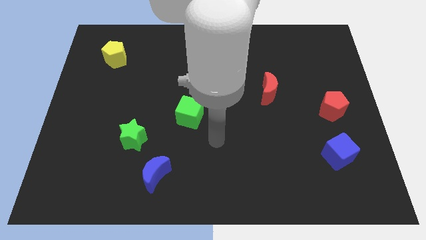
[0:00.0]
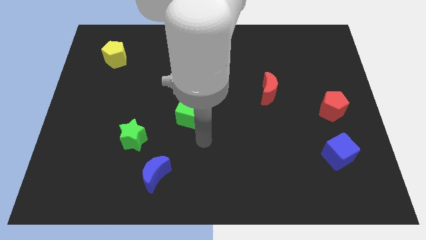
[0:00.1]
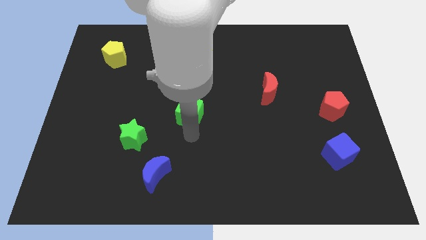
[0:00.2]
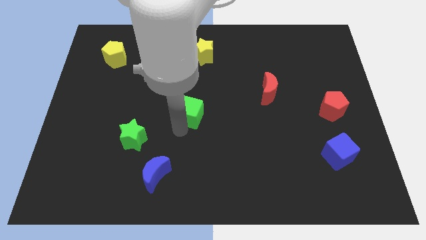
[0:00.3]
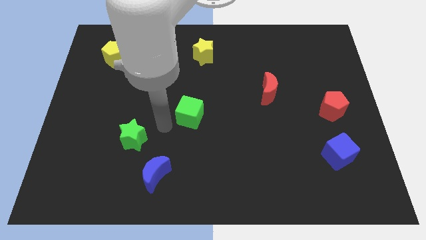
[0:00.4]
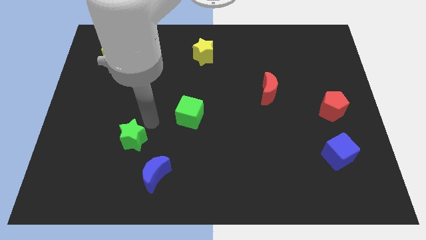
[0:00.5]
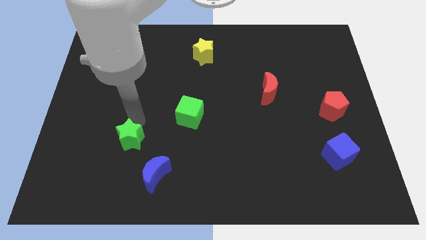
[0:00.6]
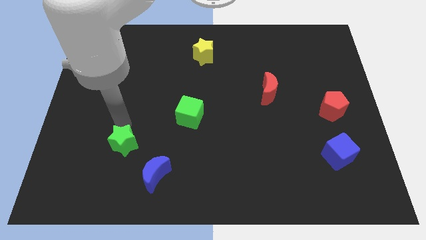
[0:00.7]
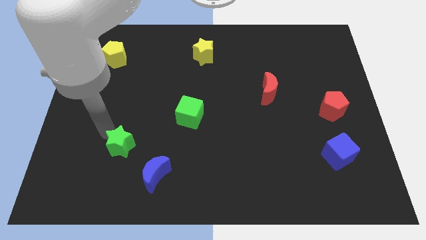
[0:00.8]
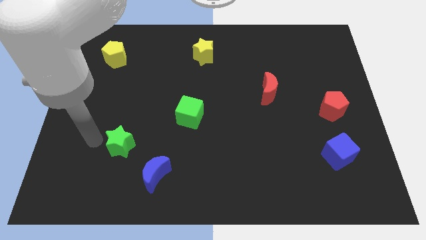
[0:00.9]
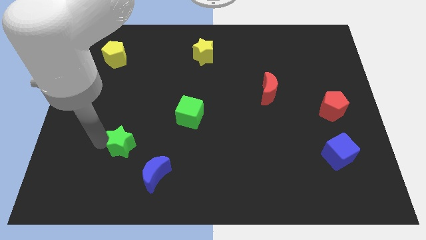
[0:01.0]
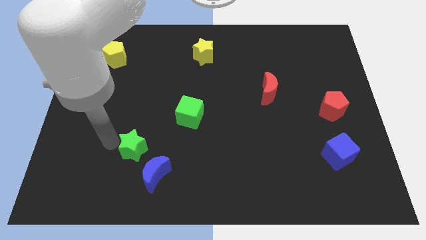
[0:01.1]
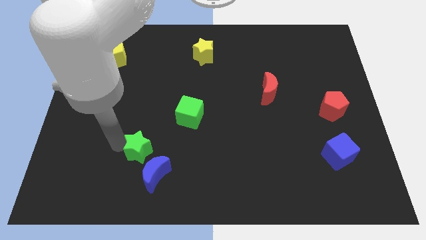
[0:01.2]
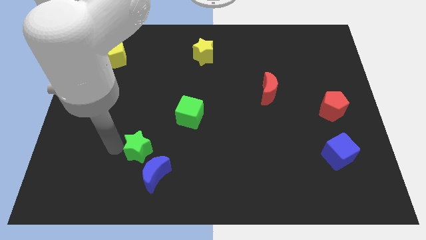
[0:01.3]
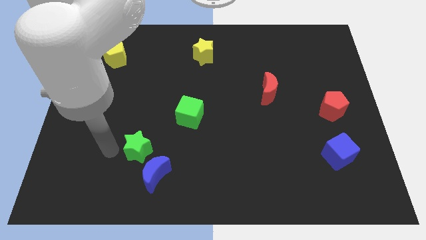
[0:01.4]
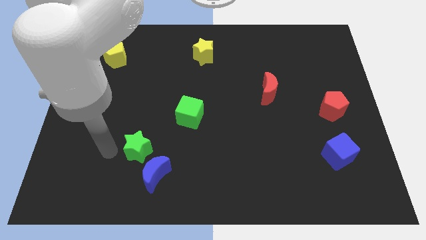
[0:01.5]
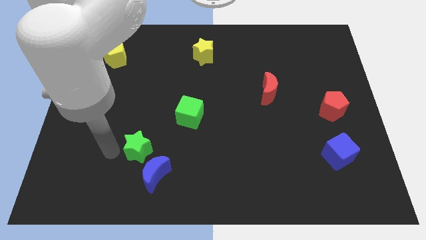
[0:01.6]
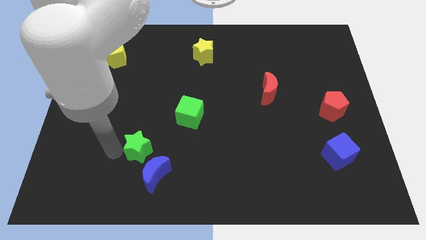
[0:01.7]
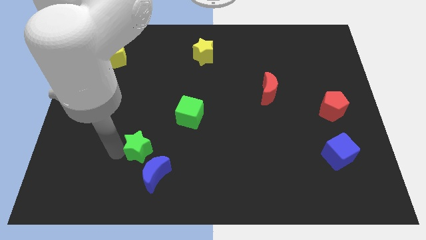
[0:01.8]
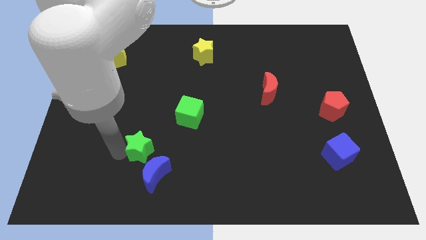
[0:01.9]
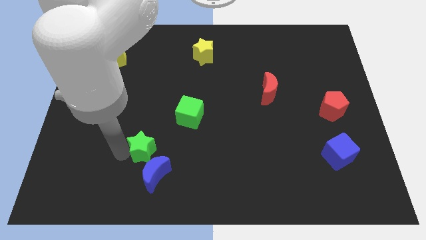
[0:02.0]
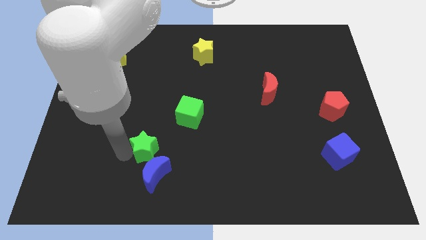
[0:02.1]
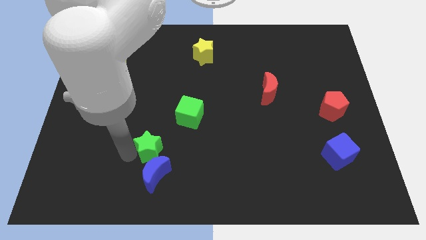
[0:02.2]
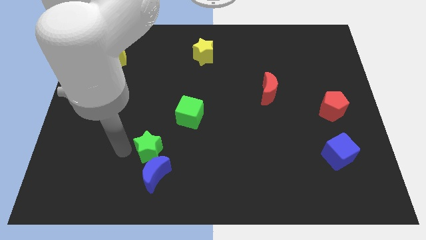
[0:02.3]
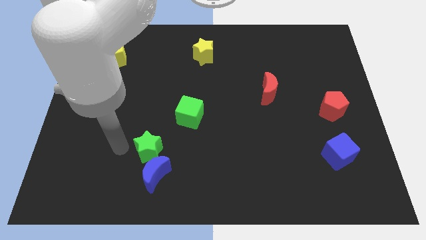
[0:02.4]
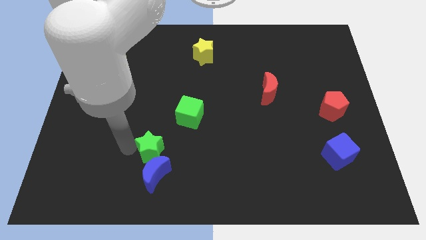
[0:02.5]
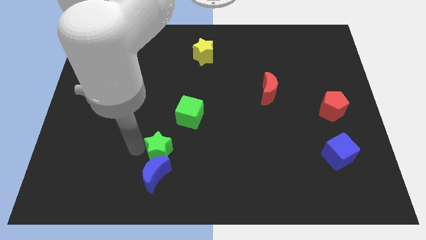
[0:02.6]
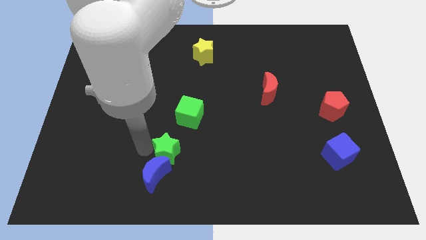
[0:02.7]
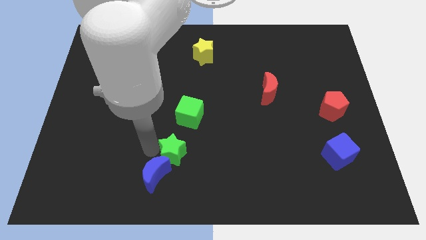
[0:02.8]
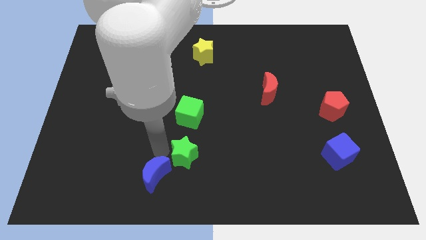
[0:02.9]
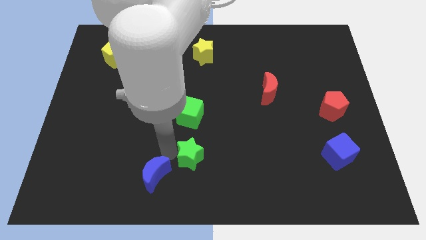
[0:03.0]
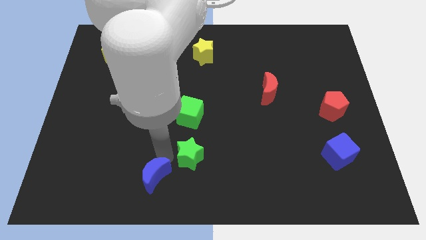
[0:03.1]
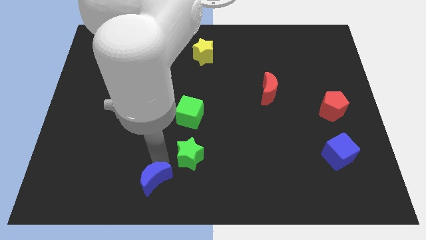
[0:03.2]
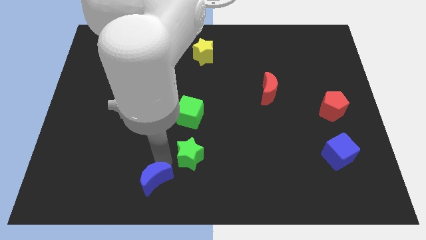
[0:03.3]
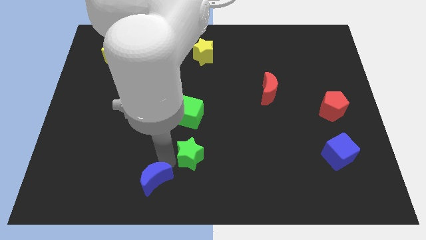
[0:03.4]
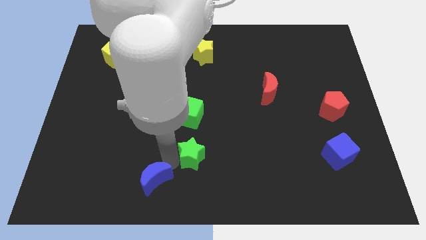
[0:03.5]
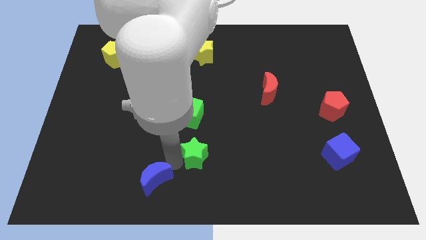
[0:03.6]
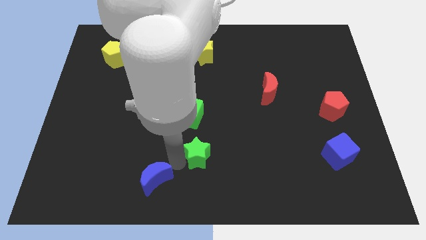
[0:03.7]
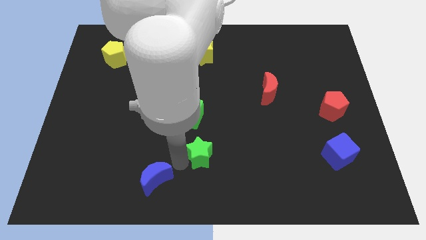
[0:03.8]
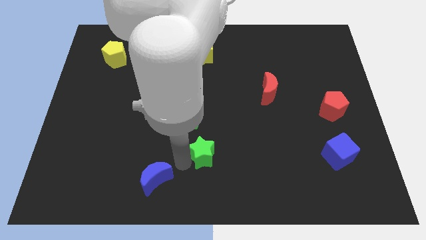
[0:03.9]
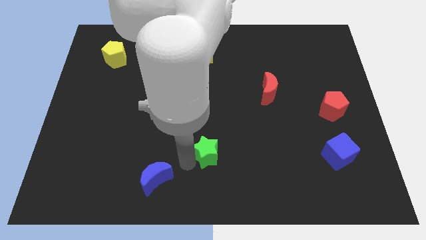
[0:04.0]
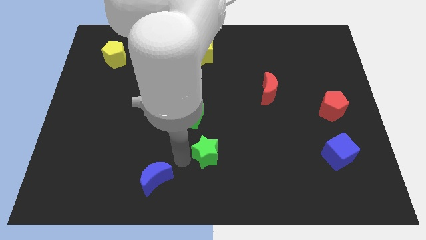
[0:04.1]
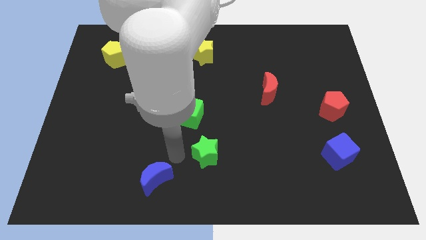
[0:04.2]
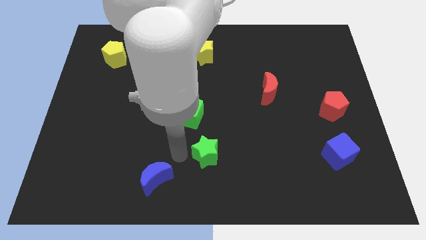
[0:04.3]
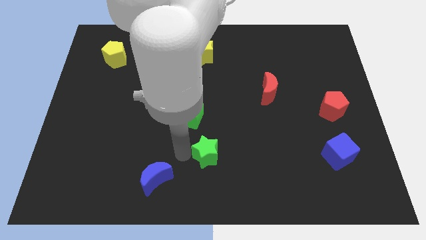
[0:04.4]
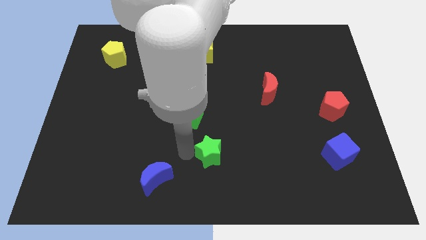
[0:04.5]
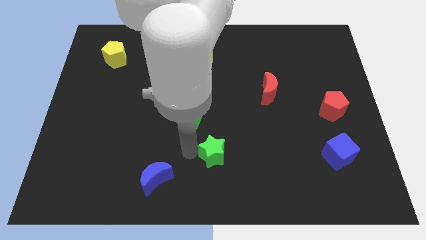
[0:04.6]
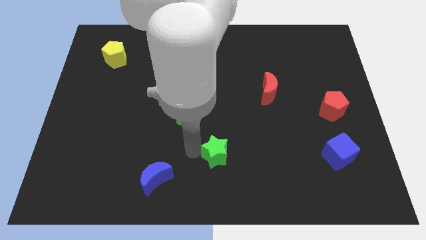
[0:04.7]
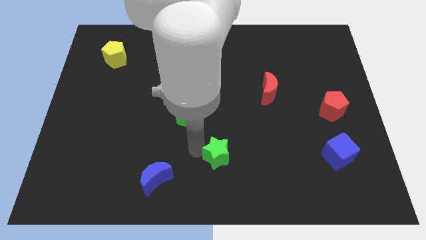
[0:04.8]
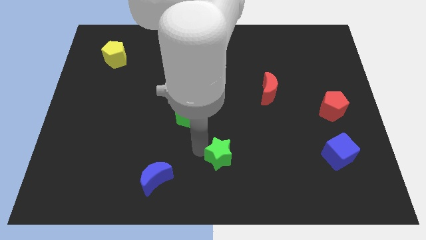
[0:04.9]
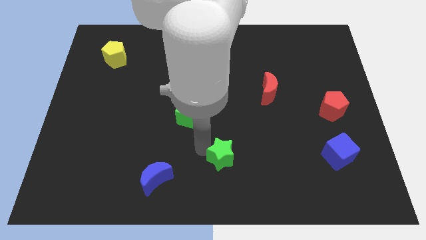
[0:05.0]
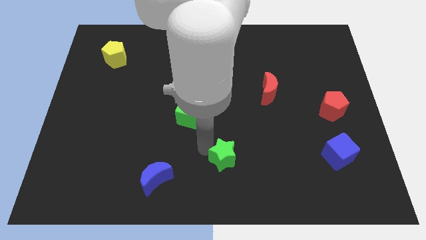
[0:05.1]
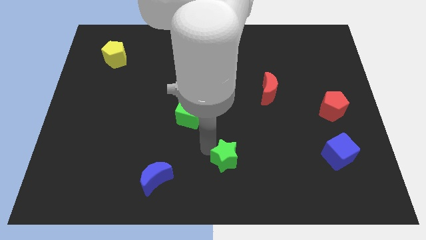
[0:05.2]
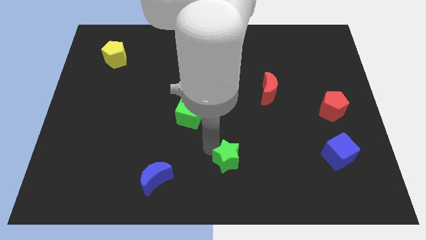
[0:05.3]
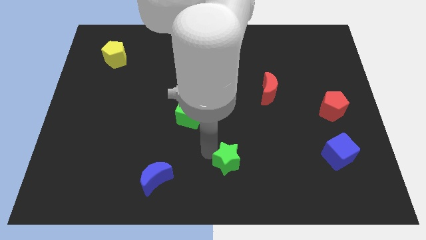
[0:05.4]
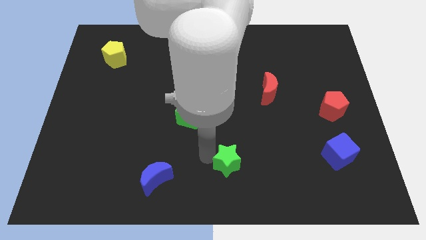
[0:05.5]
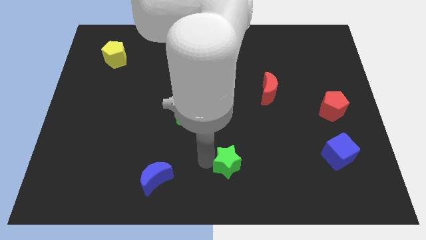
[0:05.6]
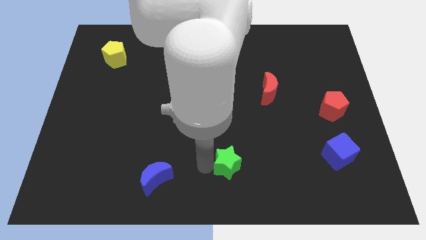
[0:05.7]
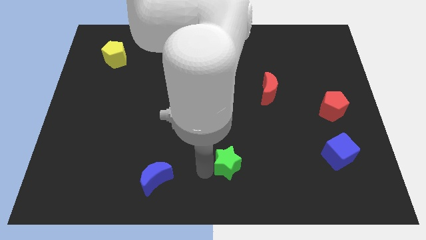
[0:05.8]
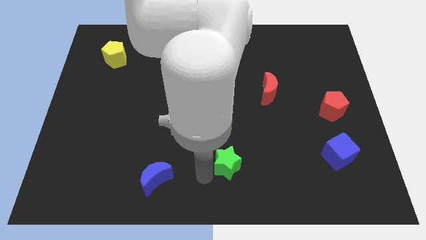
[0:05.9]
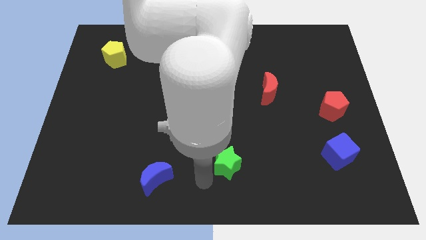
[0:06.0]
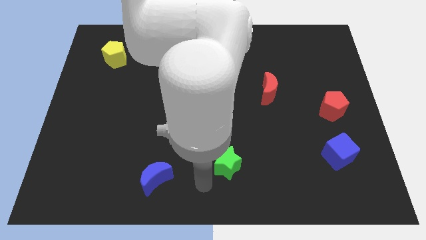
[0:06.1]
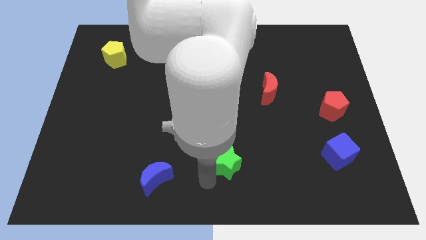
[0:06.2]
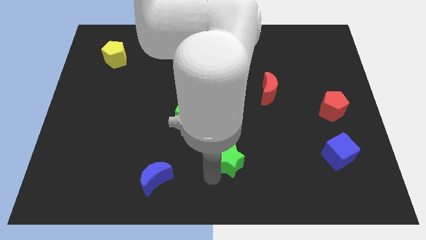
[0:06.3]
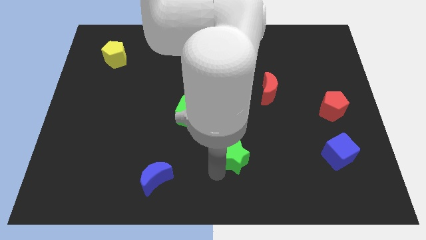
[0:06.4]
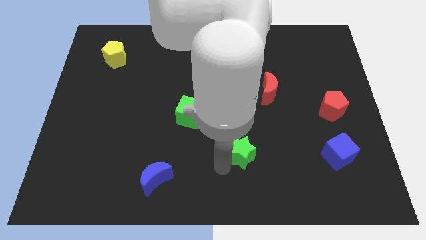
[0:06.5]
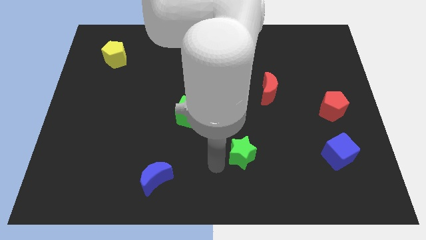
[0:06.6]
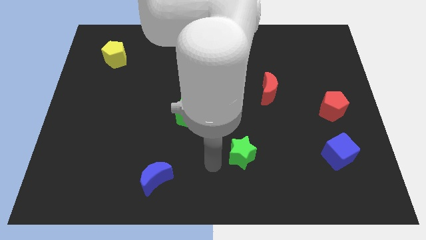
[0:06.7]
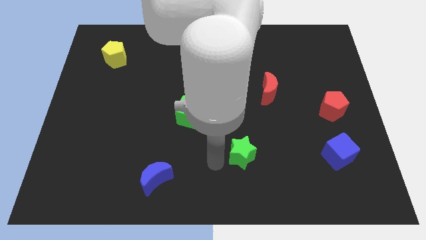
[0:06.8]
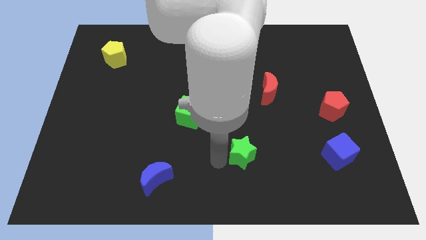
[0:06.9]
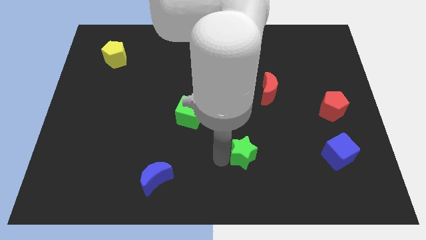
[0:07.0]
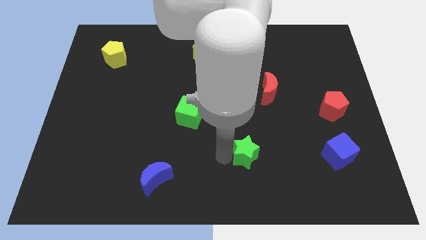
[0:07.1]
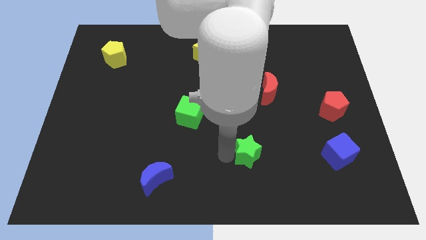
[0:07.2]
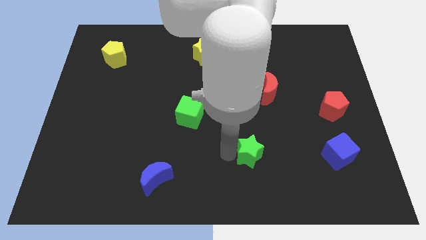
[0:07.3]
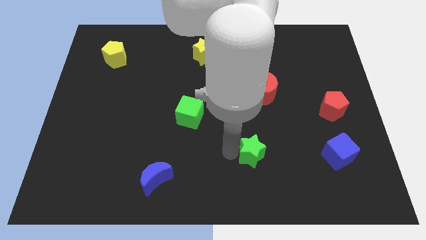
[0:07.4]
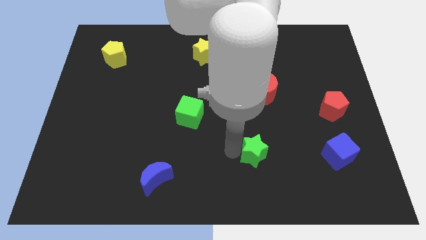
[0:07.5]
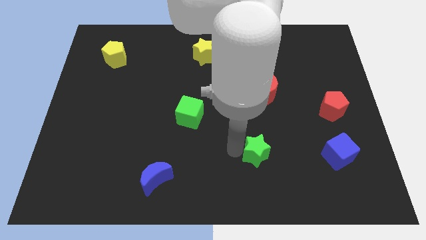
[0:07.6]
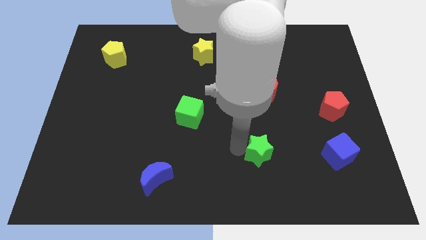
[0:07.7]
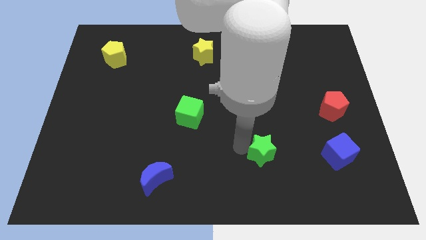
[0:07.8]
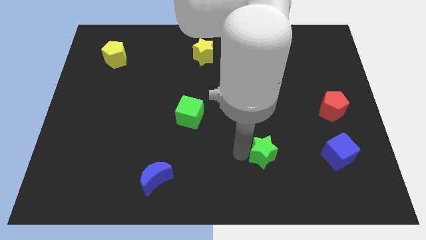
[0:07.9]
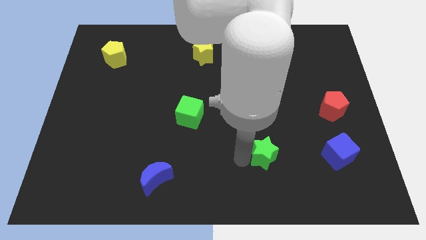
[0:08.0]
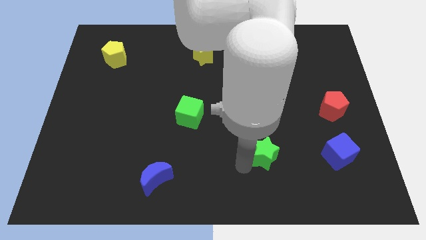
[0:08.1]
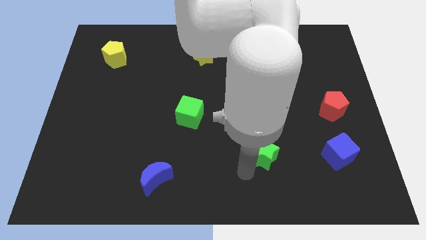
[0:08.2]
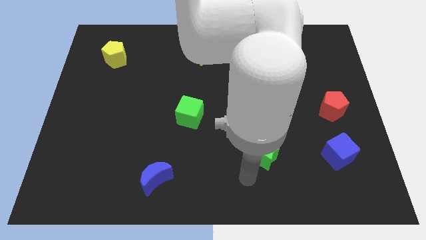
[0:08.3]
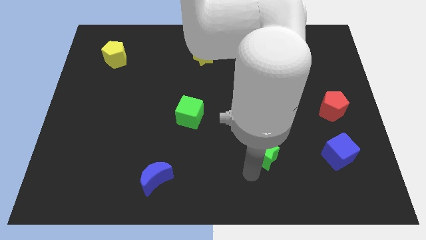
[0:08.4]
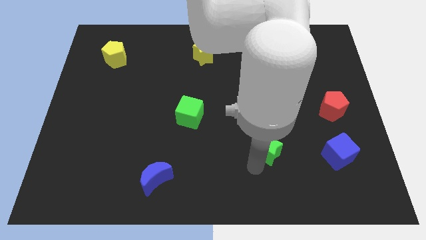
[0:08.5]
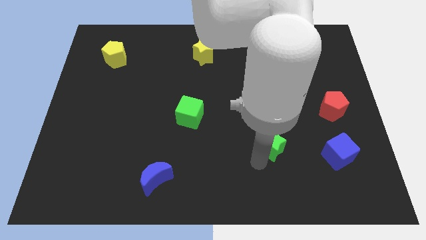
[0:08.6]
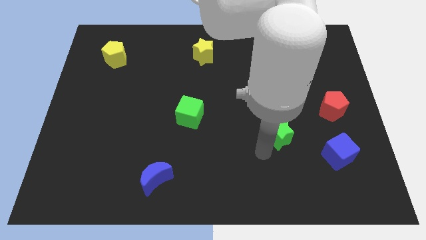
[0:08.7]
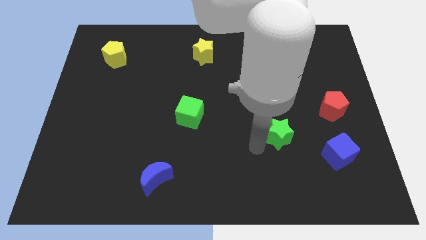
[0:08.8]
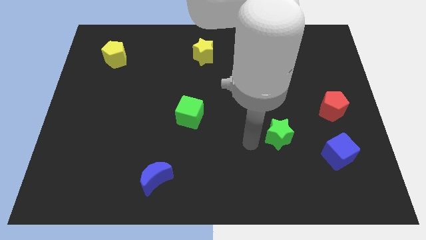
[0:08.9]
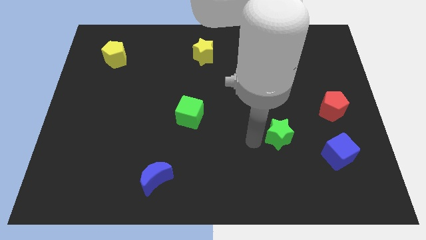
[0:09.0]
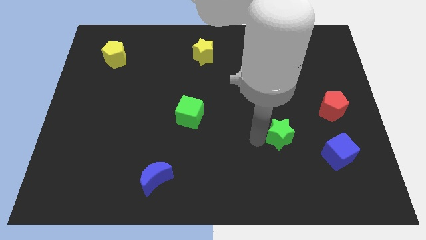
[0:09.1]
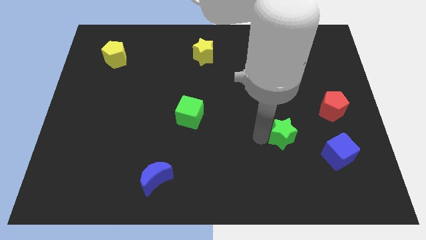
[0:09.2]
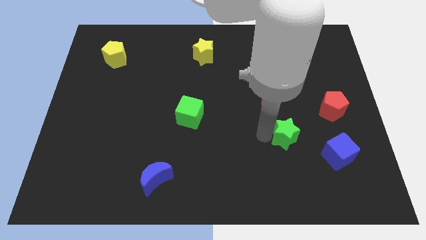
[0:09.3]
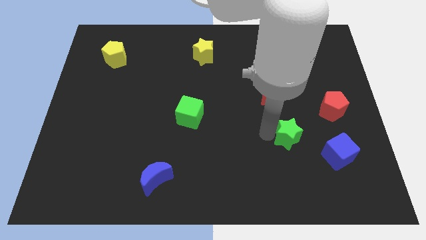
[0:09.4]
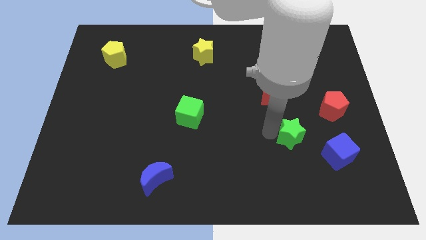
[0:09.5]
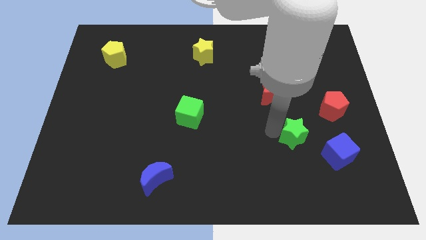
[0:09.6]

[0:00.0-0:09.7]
slide the green star diagonally down and to the left of the red pentagon
